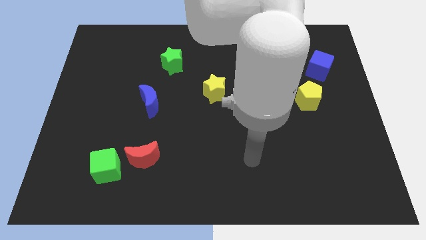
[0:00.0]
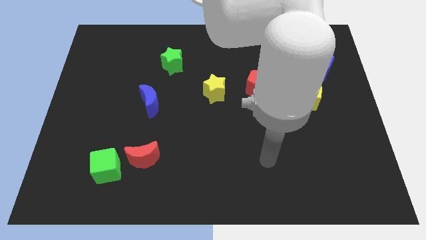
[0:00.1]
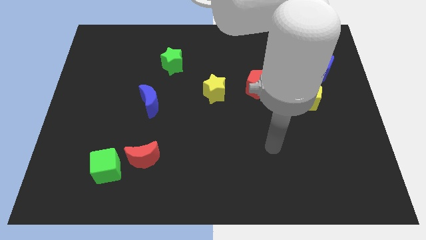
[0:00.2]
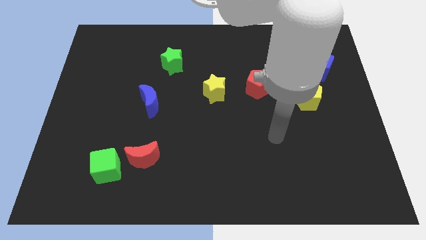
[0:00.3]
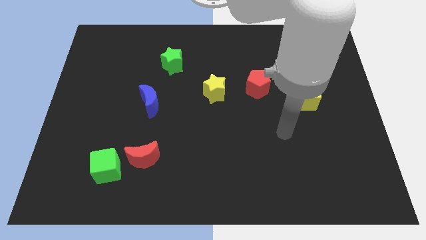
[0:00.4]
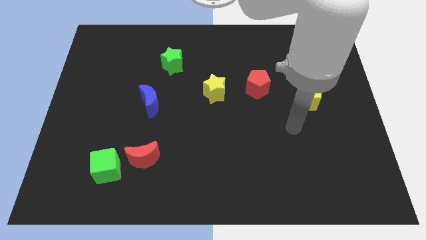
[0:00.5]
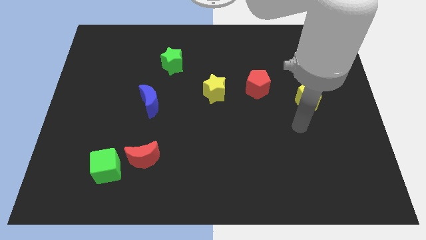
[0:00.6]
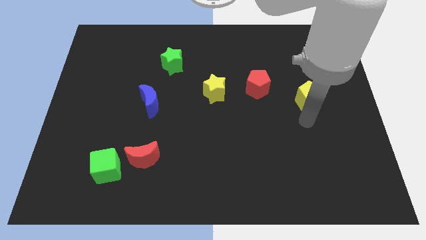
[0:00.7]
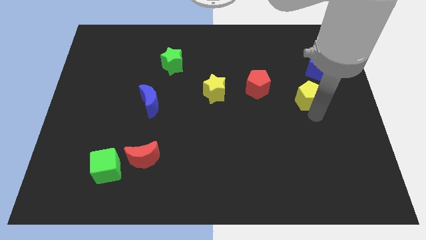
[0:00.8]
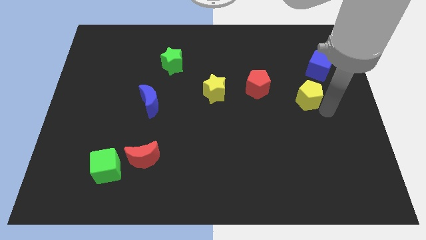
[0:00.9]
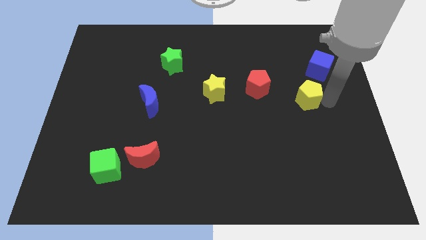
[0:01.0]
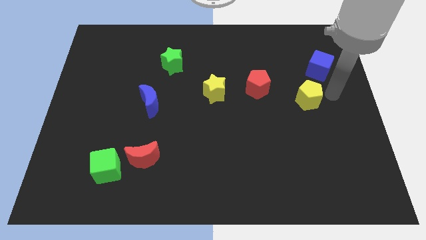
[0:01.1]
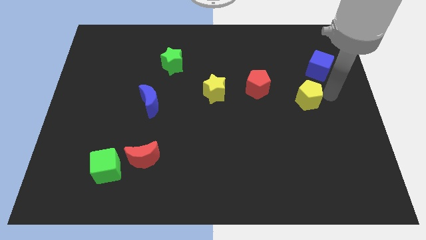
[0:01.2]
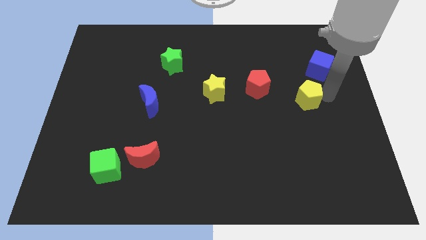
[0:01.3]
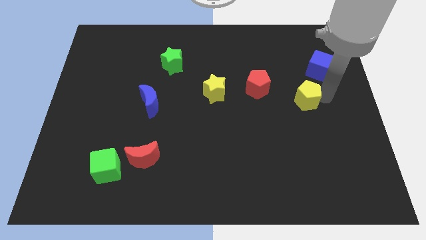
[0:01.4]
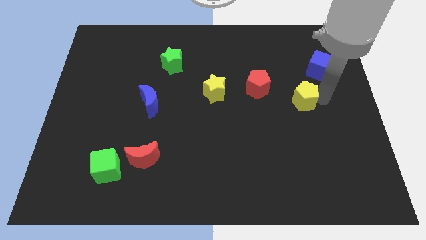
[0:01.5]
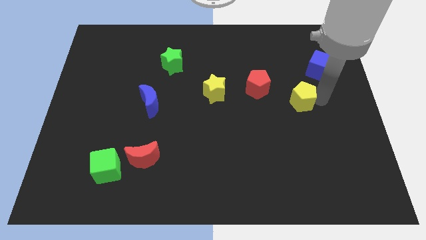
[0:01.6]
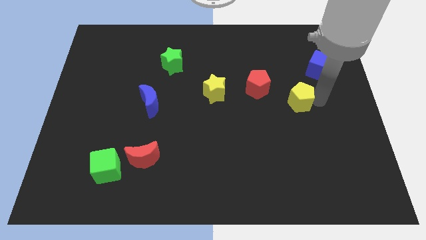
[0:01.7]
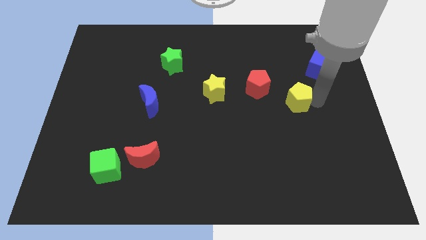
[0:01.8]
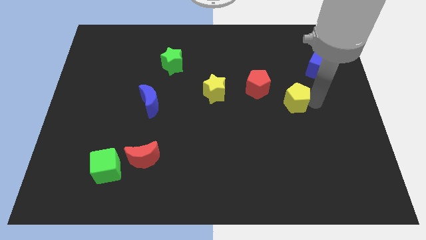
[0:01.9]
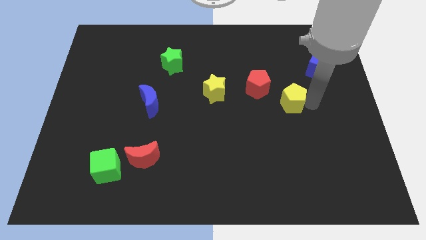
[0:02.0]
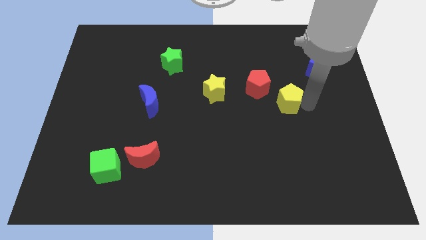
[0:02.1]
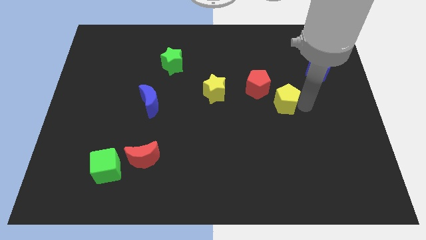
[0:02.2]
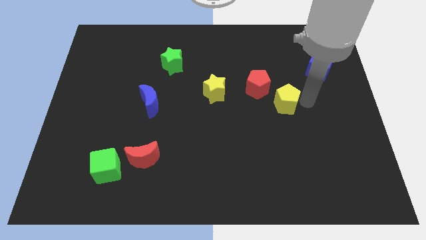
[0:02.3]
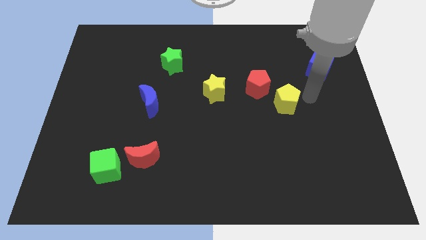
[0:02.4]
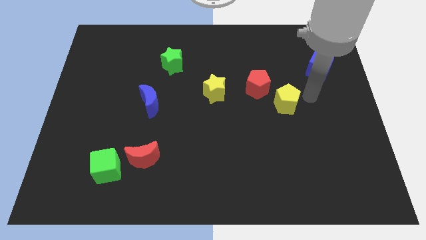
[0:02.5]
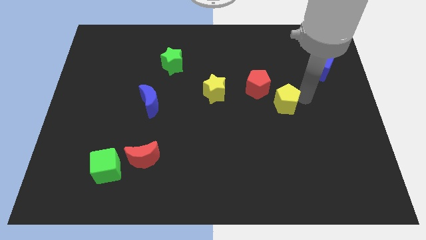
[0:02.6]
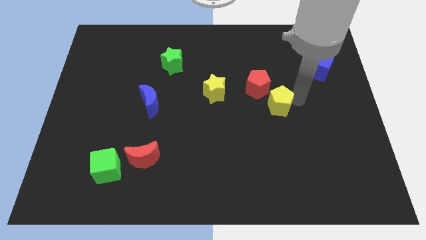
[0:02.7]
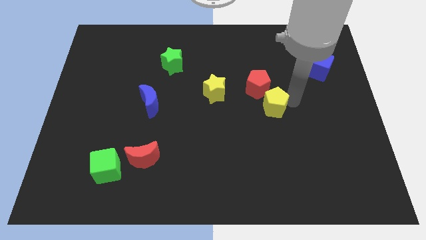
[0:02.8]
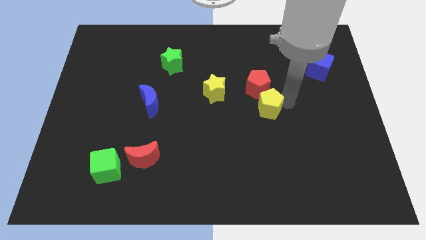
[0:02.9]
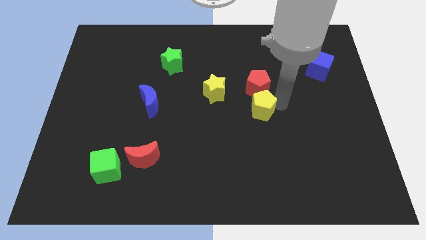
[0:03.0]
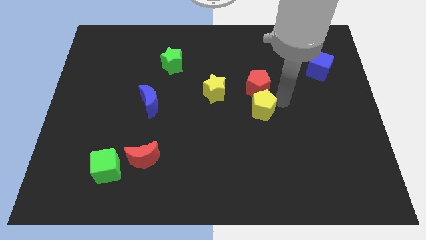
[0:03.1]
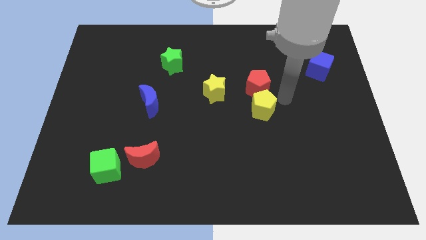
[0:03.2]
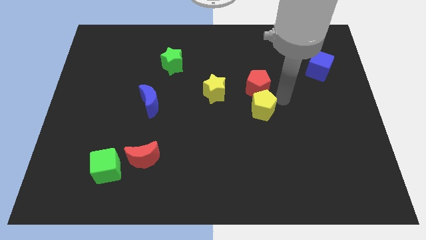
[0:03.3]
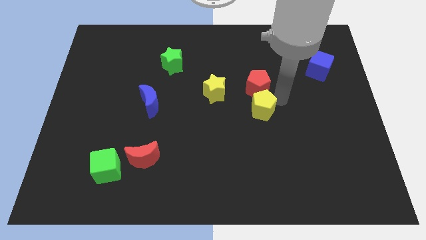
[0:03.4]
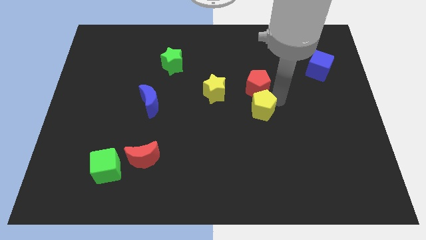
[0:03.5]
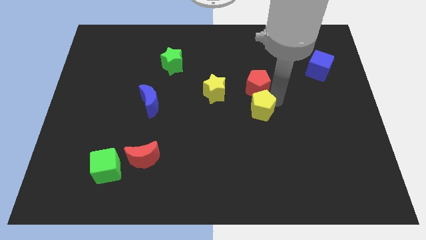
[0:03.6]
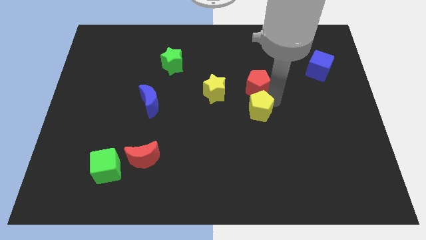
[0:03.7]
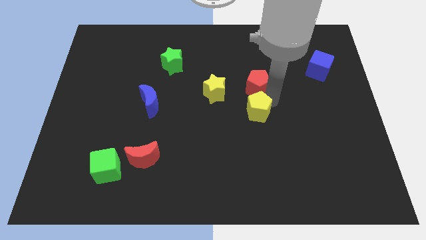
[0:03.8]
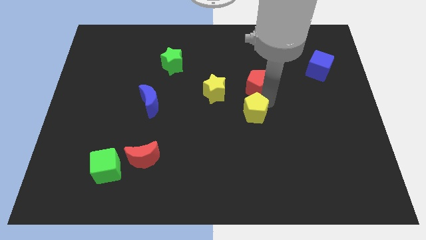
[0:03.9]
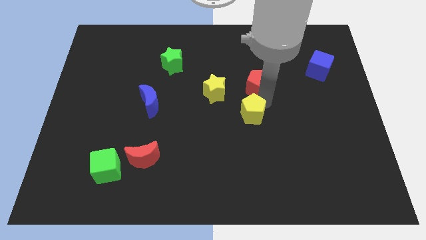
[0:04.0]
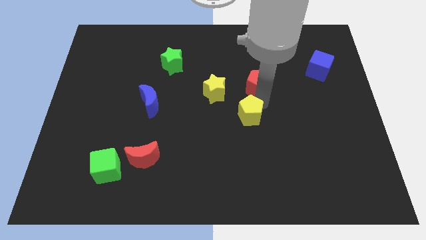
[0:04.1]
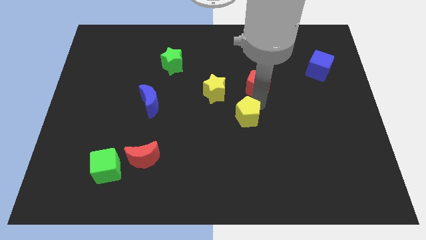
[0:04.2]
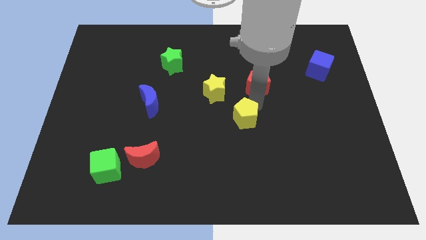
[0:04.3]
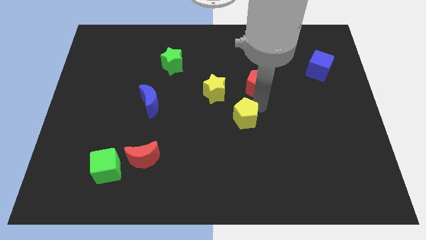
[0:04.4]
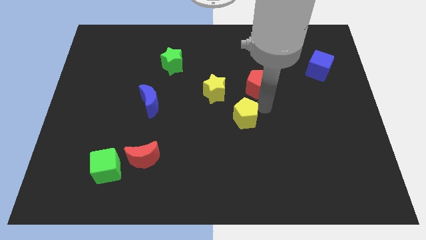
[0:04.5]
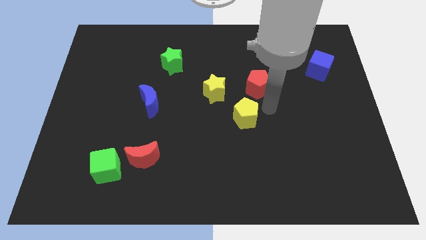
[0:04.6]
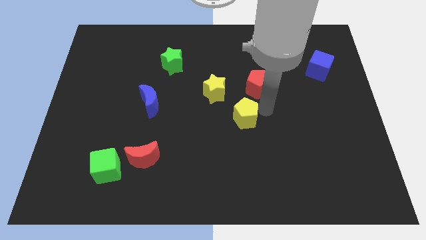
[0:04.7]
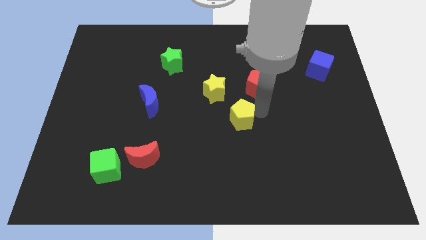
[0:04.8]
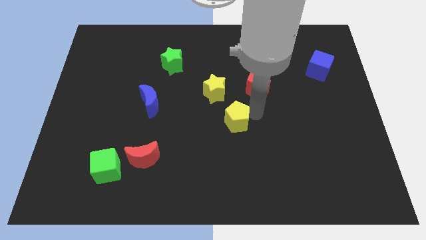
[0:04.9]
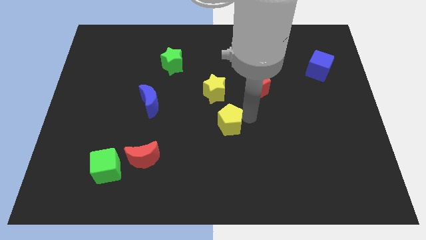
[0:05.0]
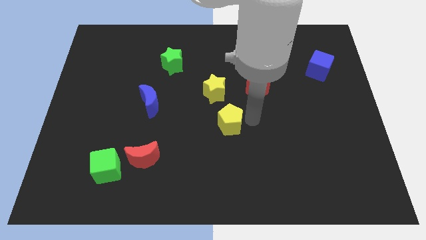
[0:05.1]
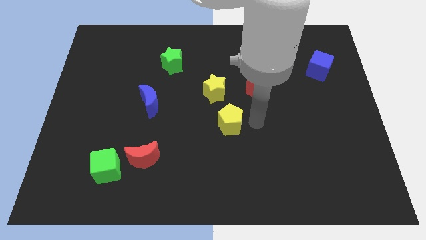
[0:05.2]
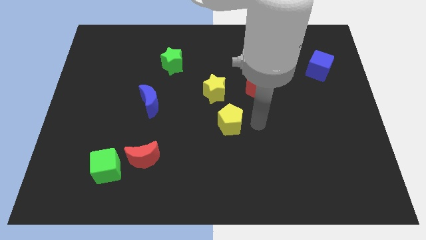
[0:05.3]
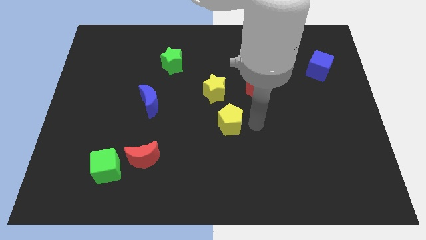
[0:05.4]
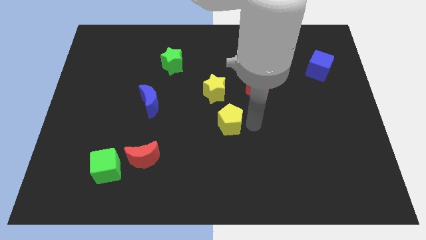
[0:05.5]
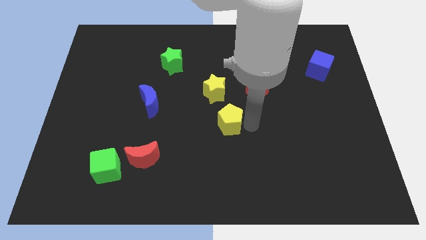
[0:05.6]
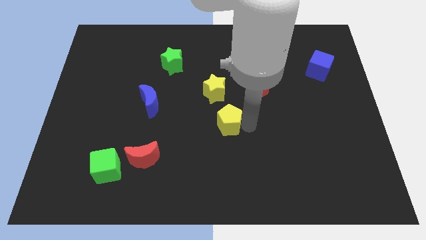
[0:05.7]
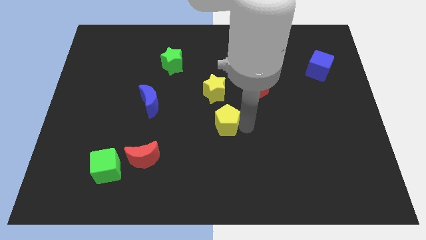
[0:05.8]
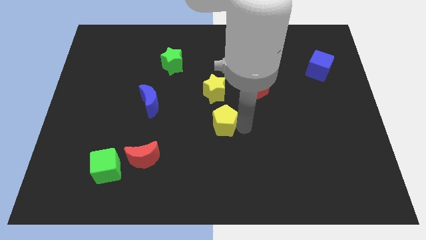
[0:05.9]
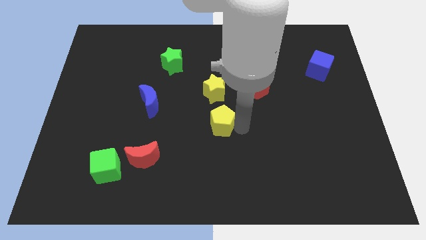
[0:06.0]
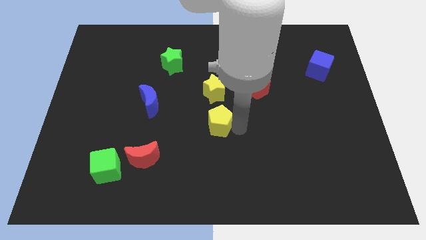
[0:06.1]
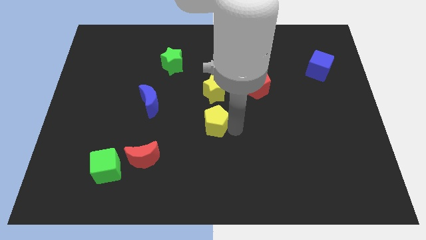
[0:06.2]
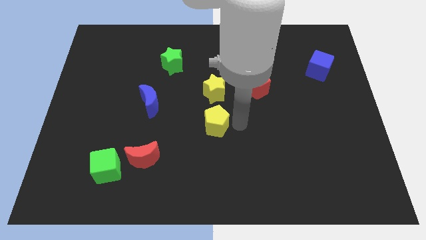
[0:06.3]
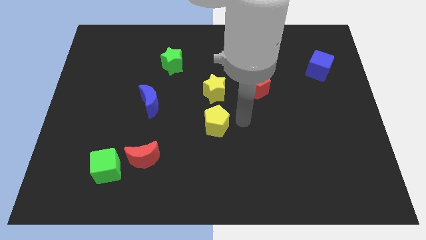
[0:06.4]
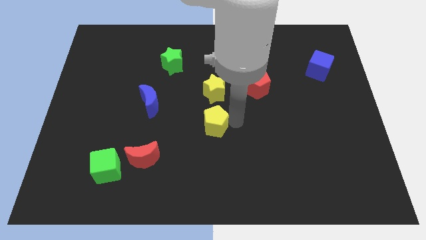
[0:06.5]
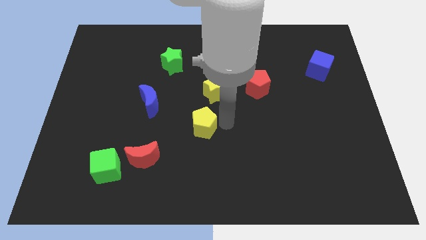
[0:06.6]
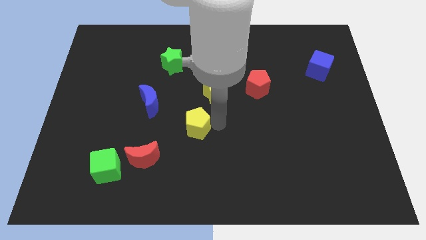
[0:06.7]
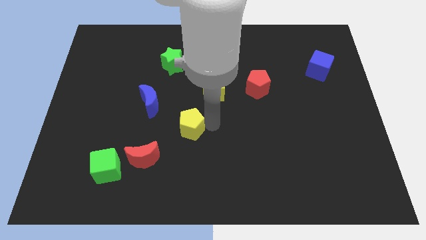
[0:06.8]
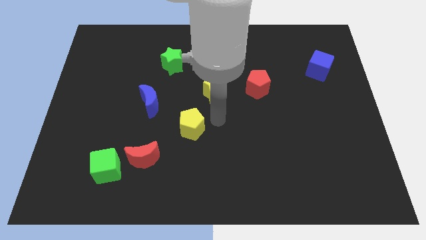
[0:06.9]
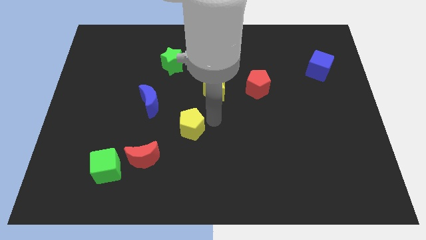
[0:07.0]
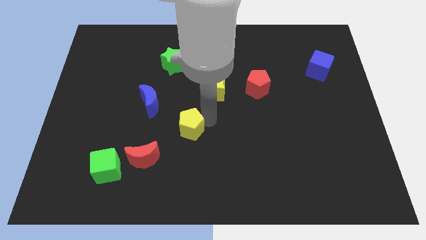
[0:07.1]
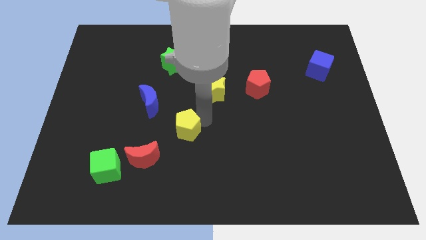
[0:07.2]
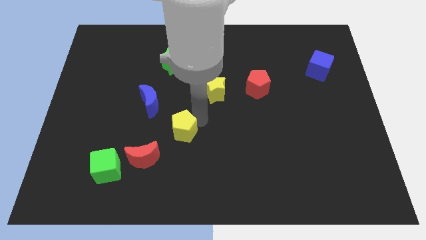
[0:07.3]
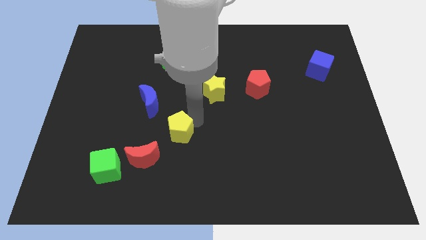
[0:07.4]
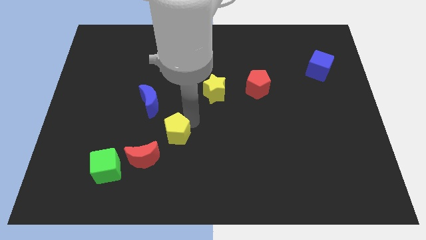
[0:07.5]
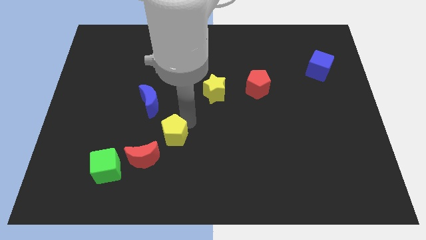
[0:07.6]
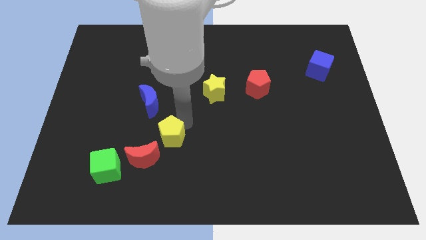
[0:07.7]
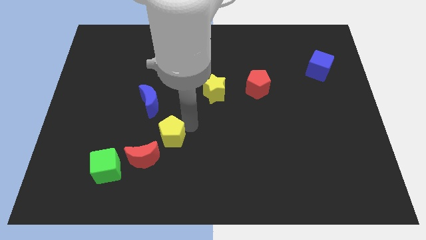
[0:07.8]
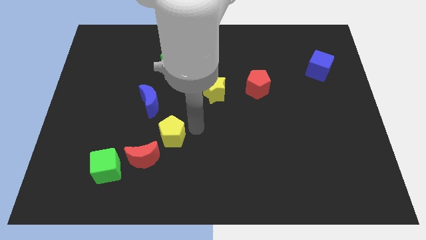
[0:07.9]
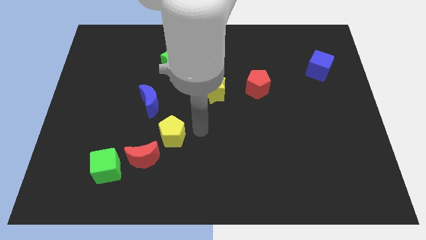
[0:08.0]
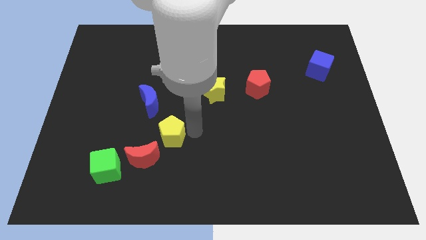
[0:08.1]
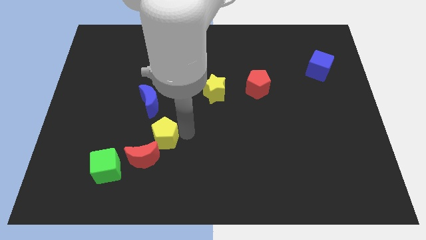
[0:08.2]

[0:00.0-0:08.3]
slide the yellow pentagon to the bottom side of the blue moon
